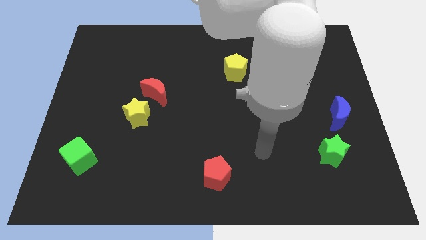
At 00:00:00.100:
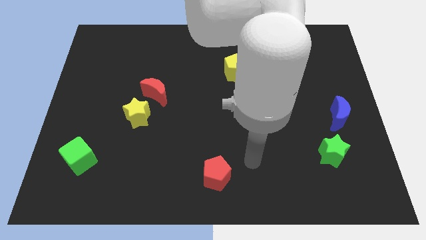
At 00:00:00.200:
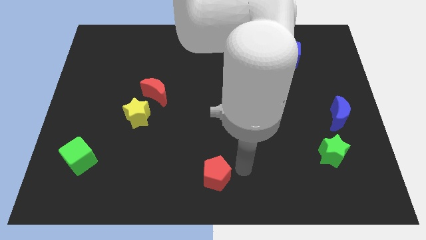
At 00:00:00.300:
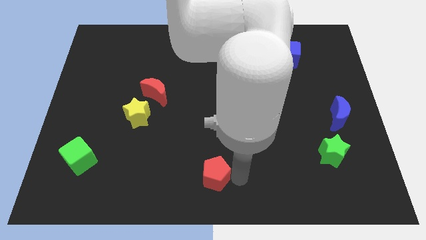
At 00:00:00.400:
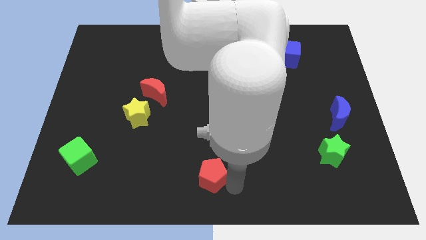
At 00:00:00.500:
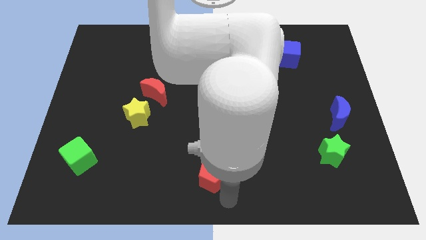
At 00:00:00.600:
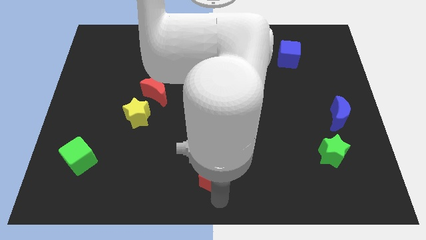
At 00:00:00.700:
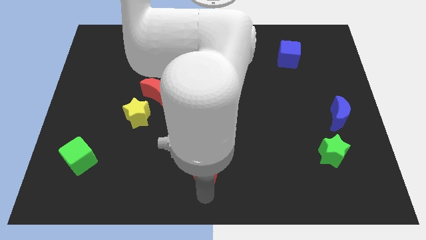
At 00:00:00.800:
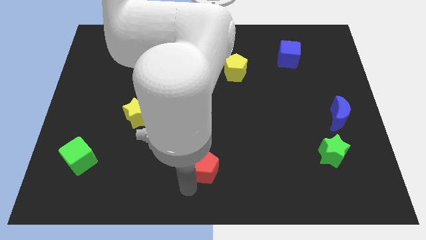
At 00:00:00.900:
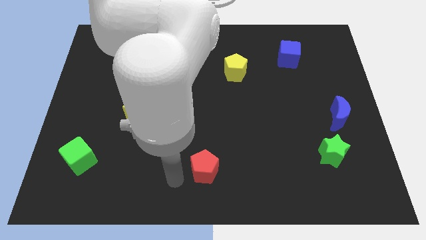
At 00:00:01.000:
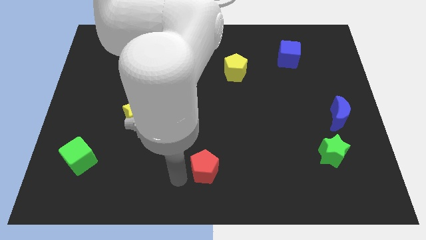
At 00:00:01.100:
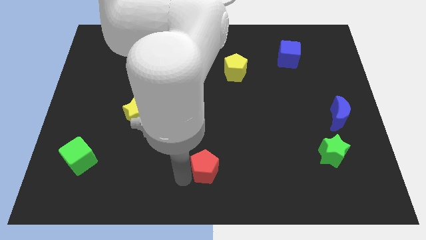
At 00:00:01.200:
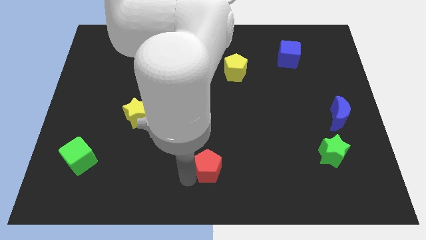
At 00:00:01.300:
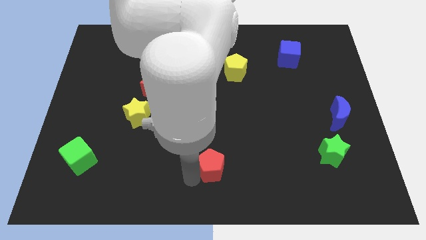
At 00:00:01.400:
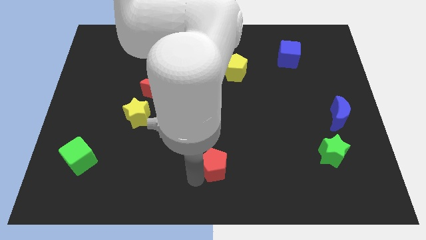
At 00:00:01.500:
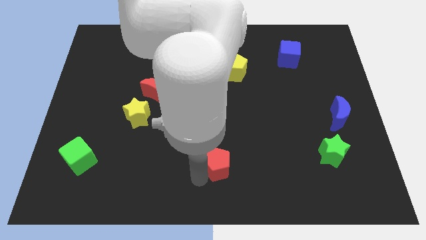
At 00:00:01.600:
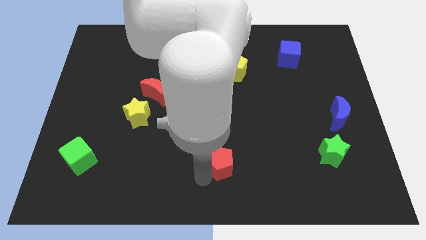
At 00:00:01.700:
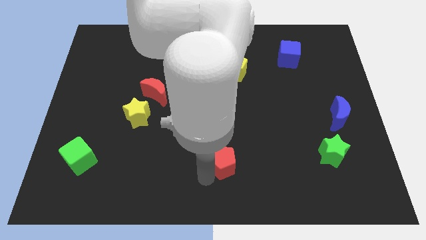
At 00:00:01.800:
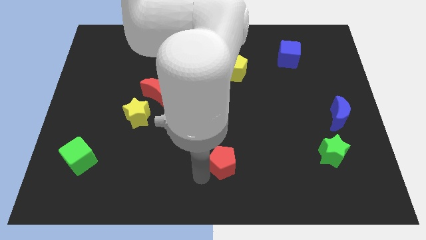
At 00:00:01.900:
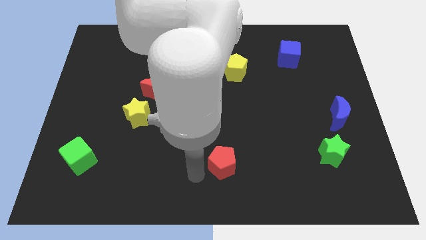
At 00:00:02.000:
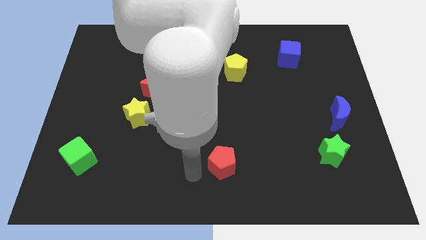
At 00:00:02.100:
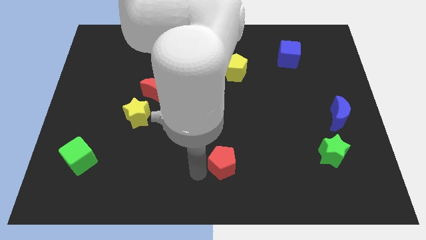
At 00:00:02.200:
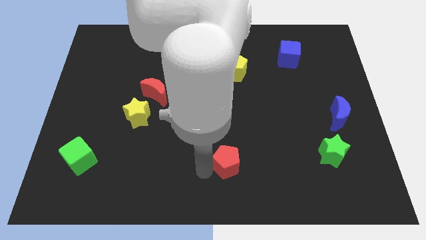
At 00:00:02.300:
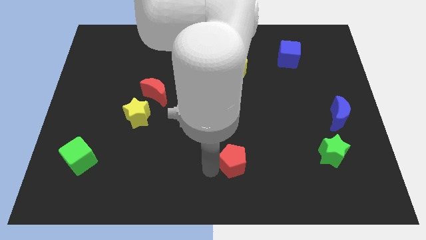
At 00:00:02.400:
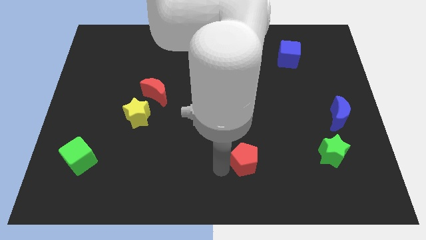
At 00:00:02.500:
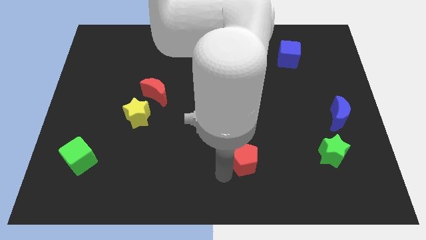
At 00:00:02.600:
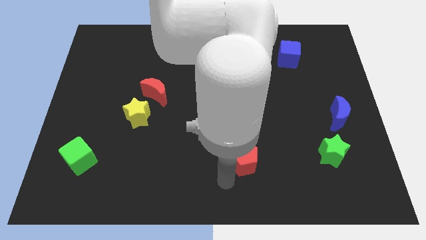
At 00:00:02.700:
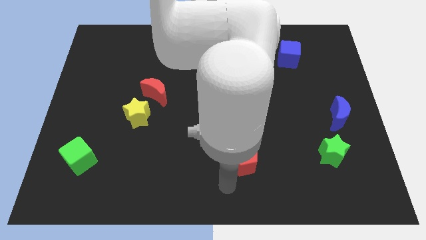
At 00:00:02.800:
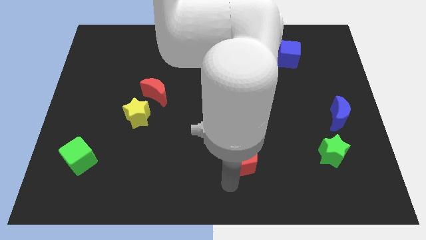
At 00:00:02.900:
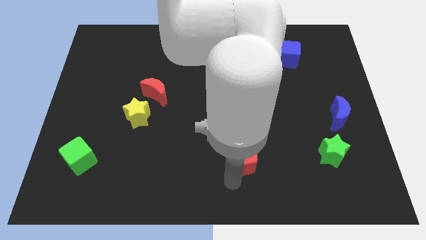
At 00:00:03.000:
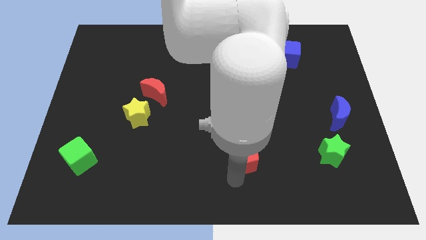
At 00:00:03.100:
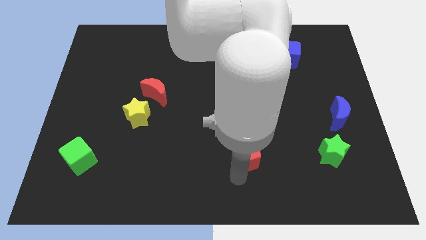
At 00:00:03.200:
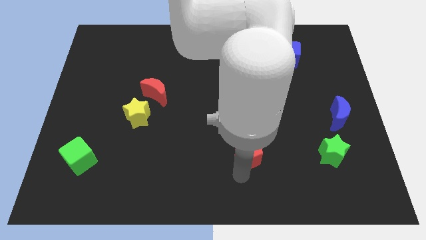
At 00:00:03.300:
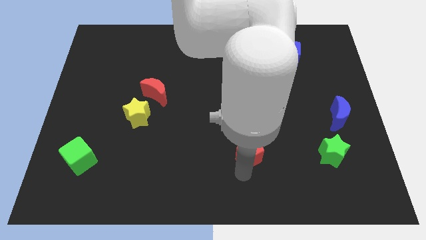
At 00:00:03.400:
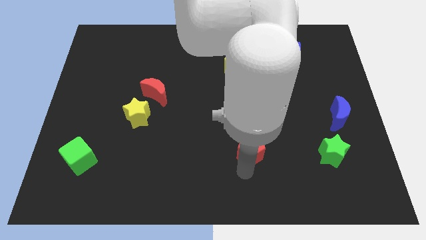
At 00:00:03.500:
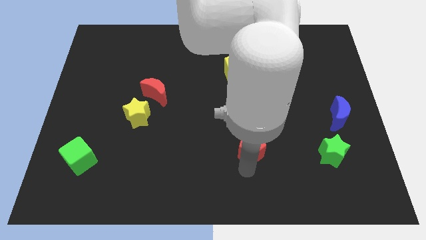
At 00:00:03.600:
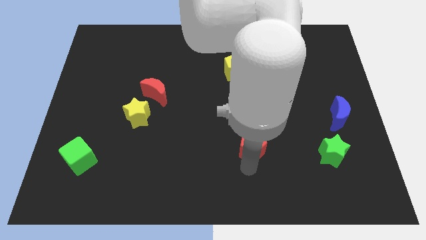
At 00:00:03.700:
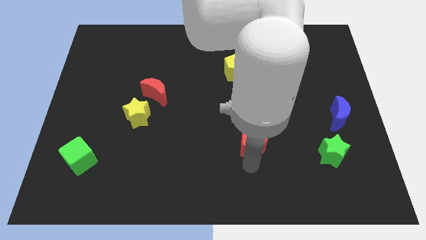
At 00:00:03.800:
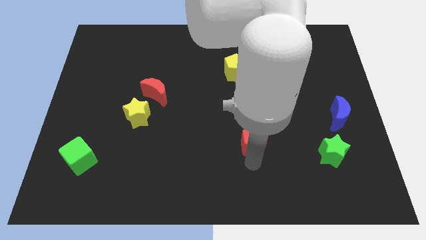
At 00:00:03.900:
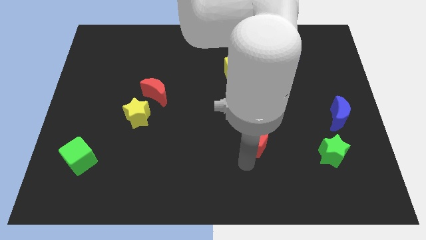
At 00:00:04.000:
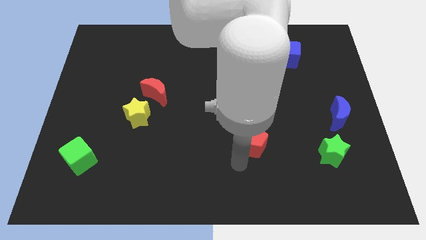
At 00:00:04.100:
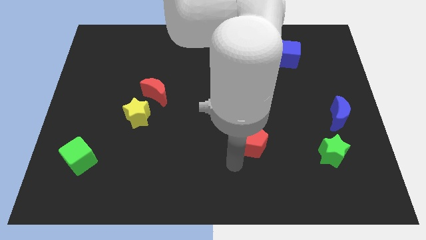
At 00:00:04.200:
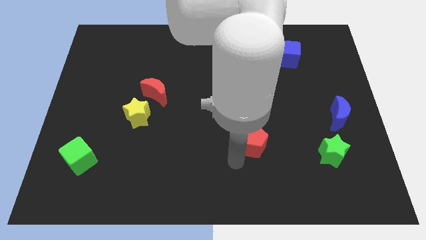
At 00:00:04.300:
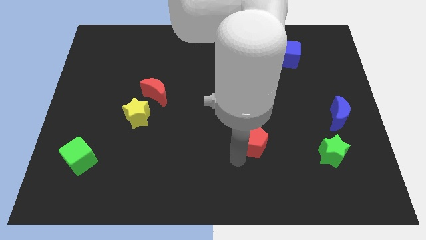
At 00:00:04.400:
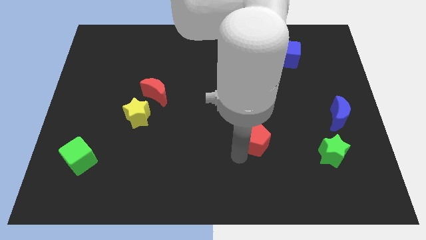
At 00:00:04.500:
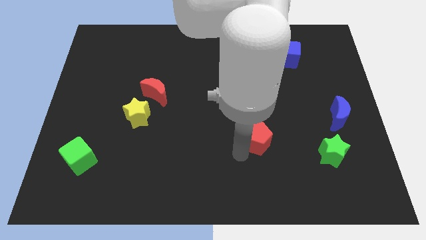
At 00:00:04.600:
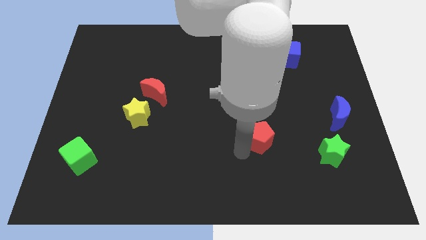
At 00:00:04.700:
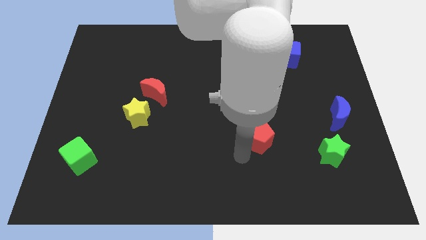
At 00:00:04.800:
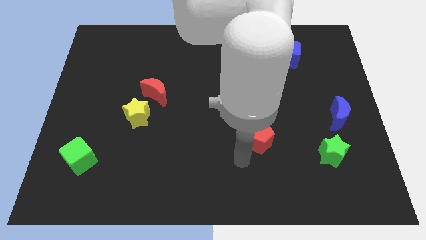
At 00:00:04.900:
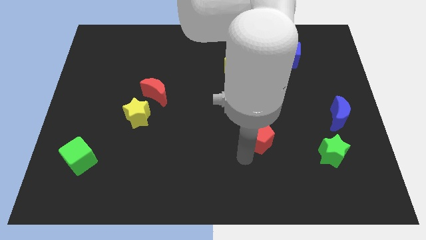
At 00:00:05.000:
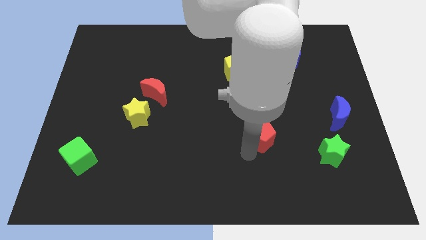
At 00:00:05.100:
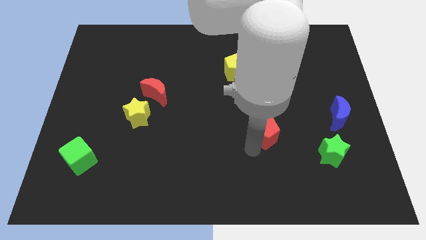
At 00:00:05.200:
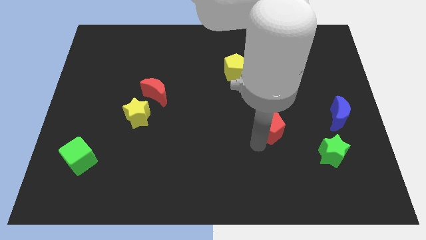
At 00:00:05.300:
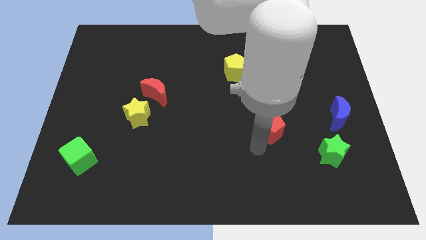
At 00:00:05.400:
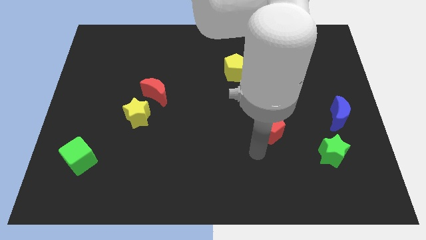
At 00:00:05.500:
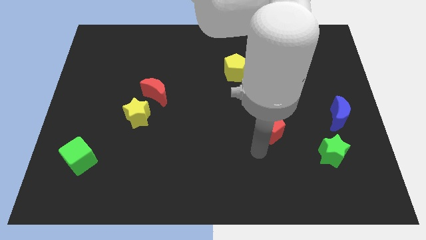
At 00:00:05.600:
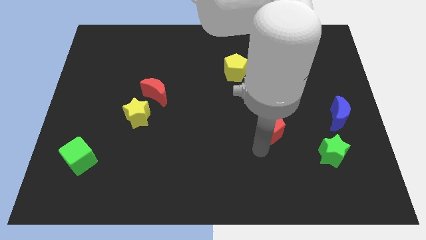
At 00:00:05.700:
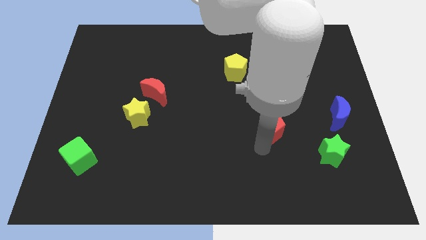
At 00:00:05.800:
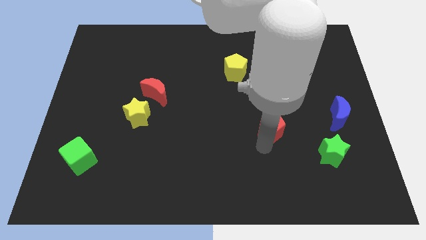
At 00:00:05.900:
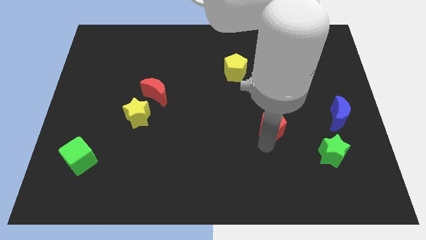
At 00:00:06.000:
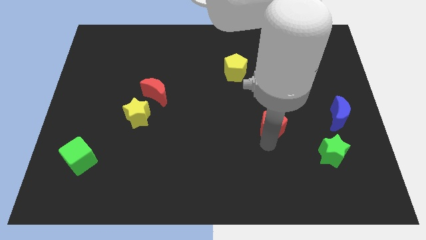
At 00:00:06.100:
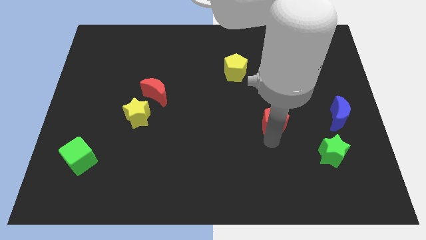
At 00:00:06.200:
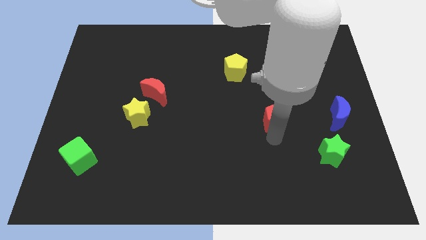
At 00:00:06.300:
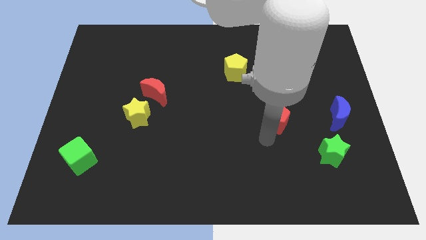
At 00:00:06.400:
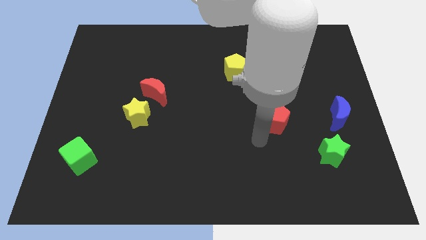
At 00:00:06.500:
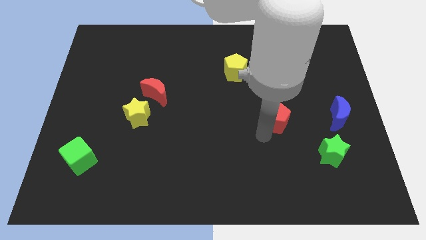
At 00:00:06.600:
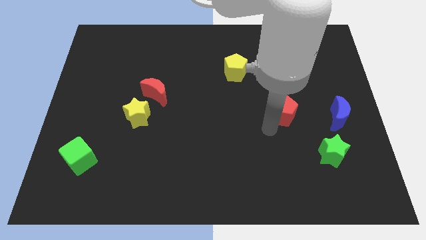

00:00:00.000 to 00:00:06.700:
push the red pentagon upwards and then right

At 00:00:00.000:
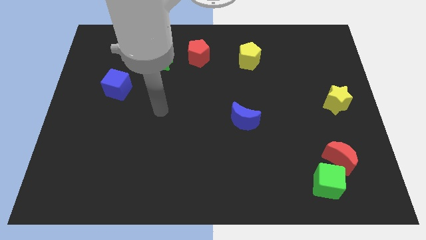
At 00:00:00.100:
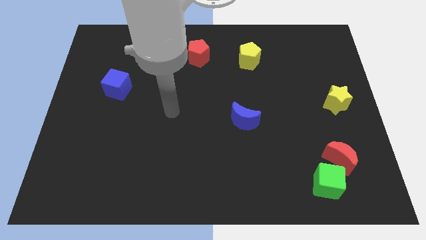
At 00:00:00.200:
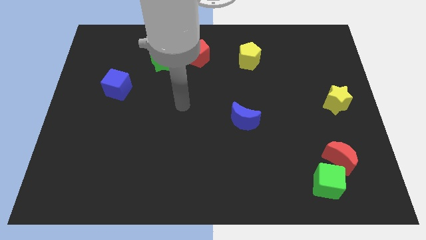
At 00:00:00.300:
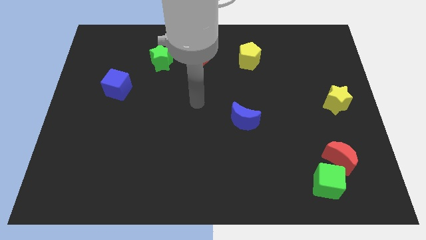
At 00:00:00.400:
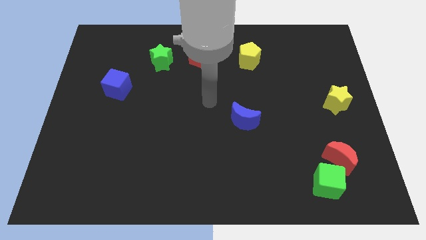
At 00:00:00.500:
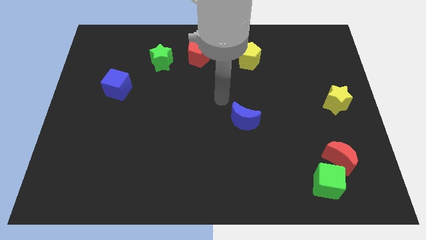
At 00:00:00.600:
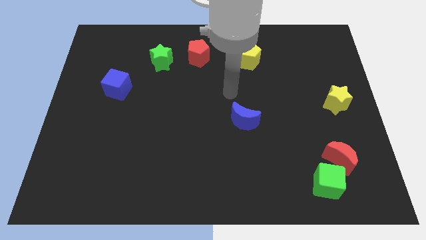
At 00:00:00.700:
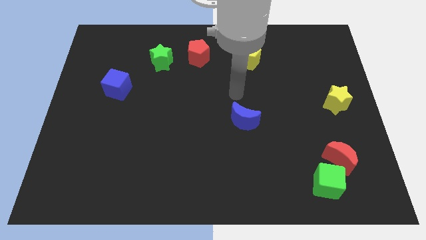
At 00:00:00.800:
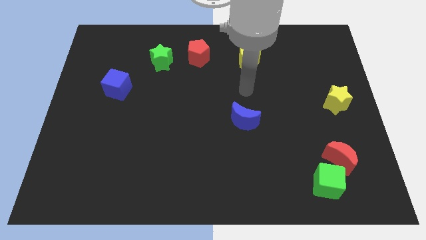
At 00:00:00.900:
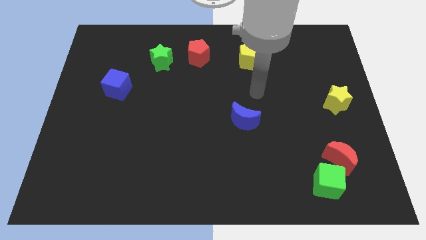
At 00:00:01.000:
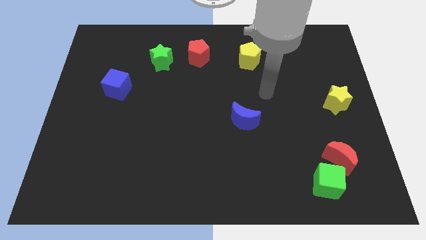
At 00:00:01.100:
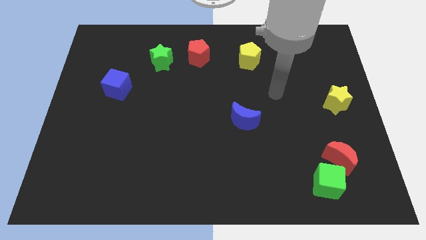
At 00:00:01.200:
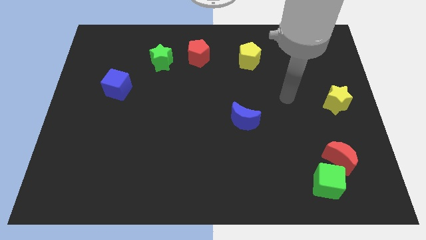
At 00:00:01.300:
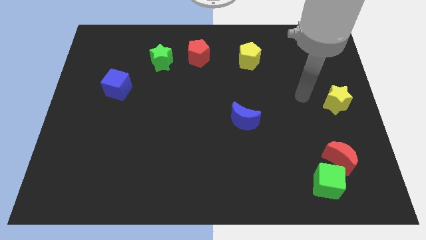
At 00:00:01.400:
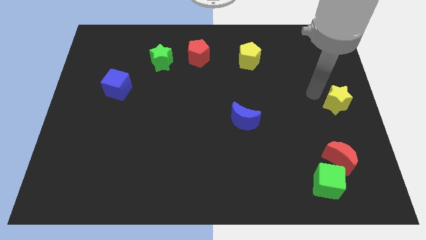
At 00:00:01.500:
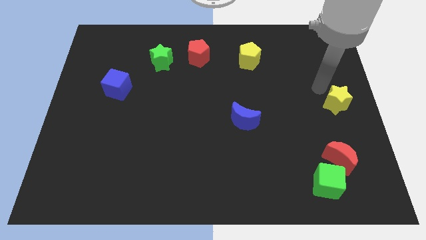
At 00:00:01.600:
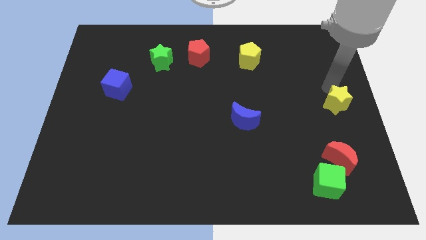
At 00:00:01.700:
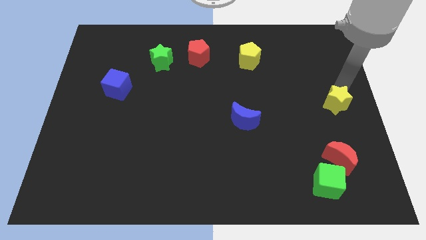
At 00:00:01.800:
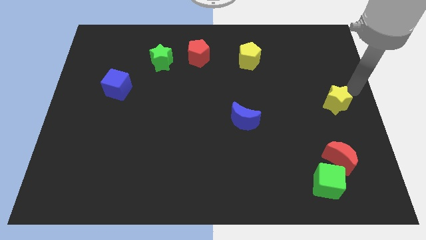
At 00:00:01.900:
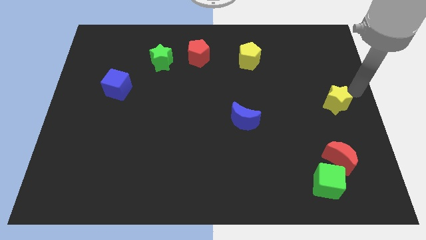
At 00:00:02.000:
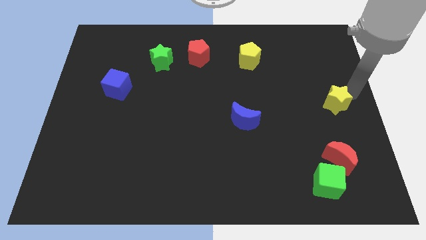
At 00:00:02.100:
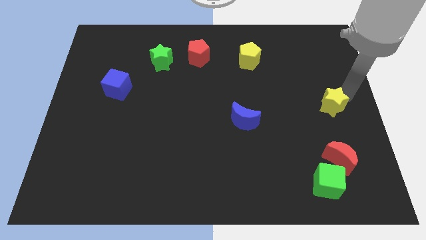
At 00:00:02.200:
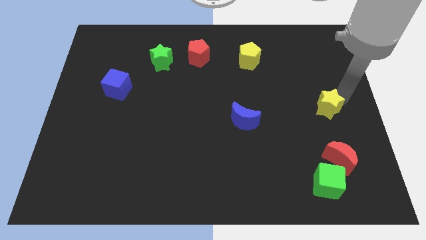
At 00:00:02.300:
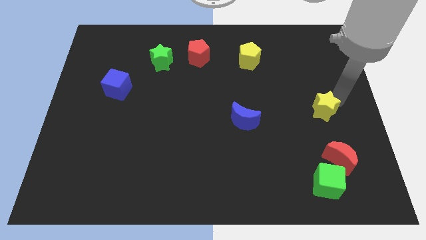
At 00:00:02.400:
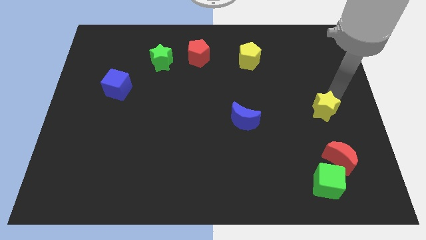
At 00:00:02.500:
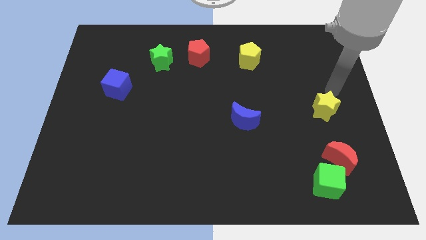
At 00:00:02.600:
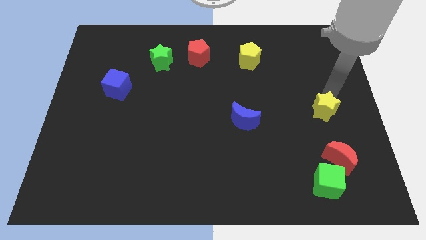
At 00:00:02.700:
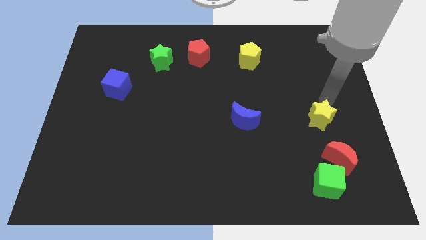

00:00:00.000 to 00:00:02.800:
slide the yellow star down and left slightly
